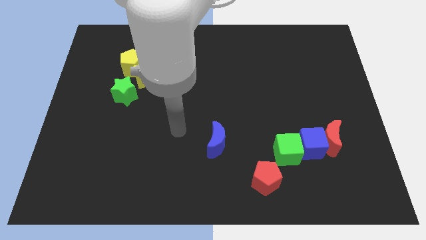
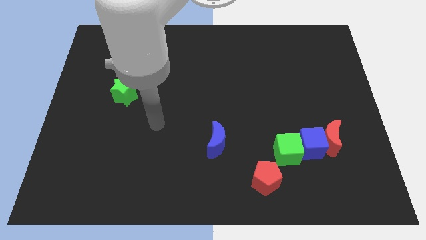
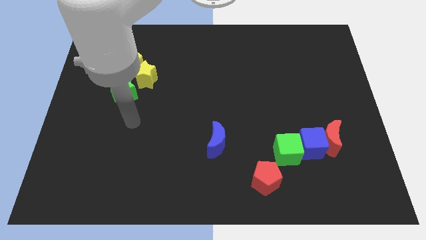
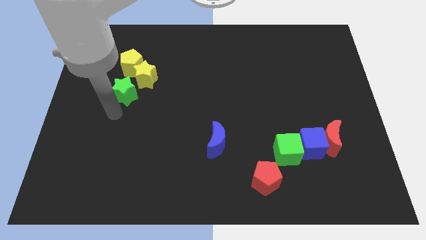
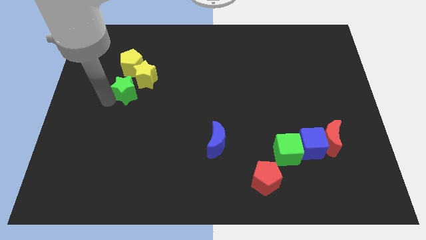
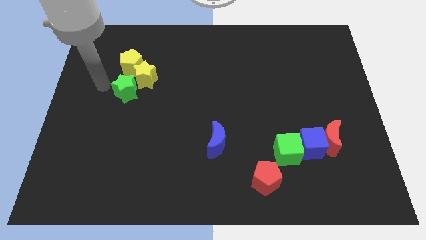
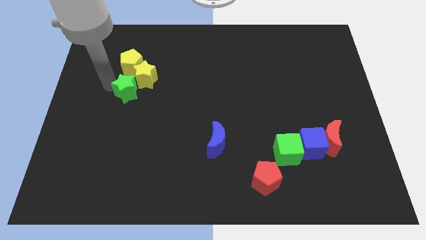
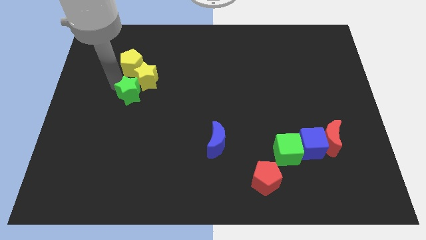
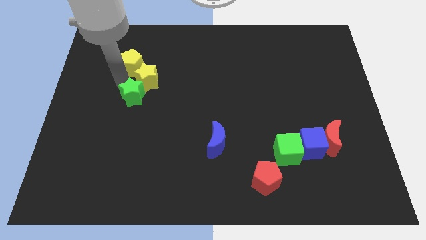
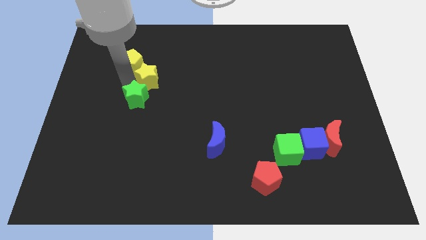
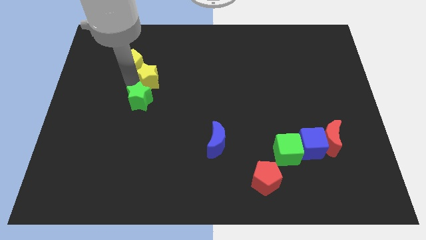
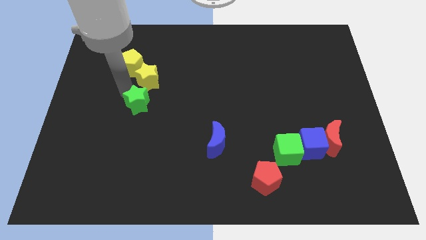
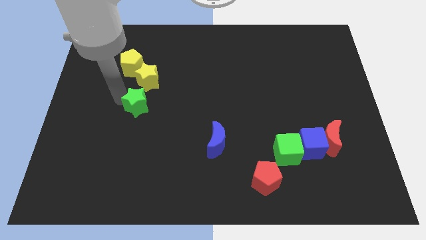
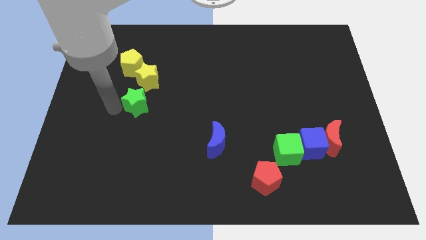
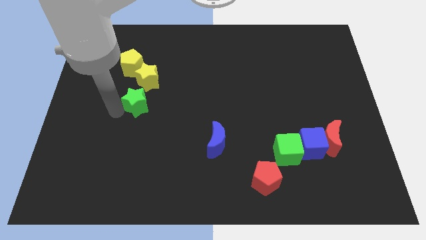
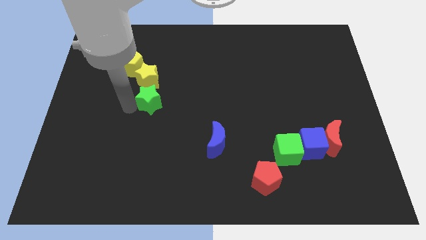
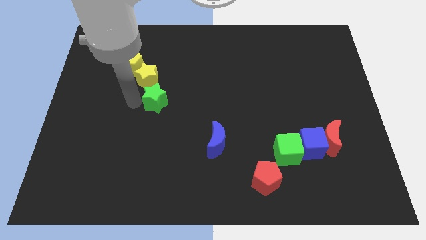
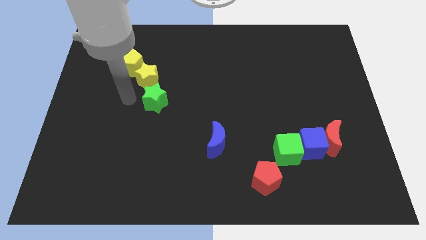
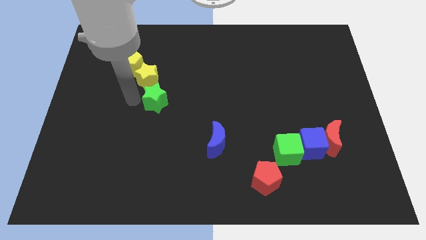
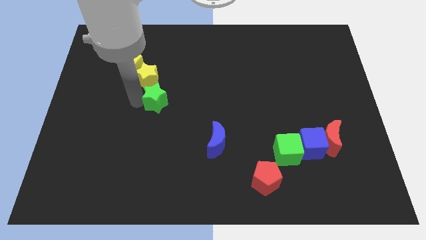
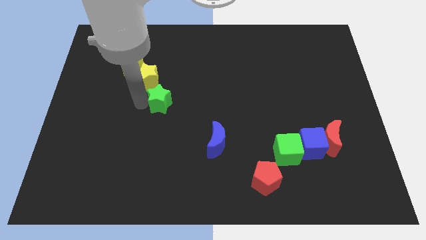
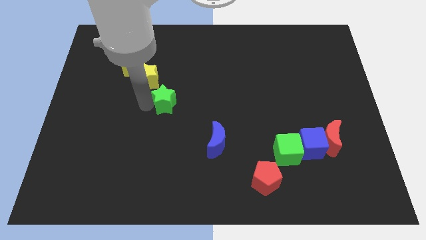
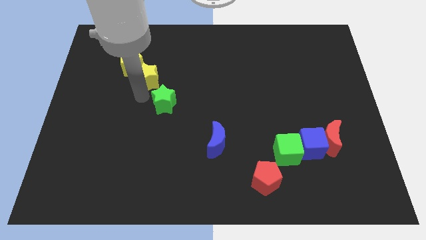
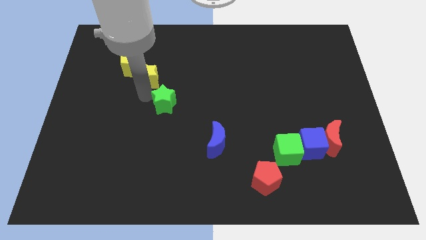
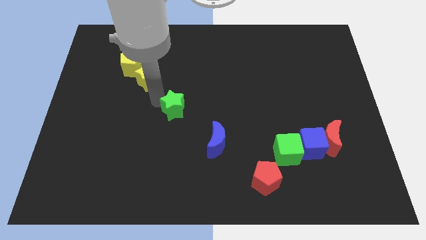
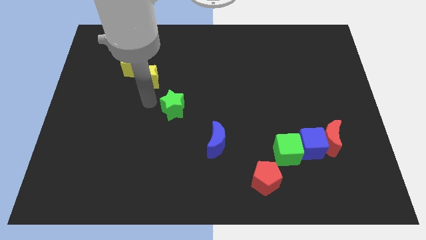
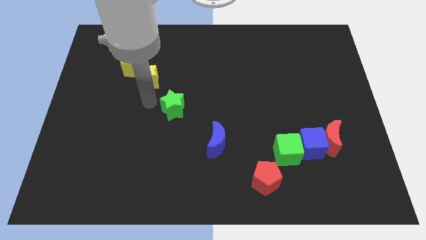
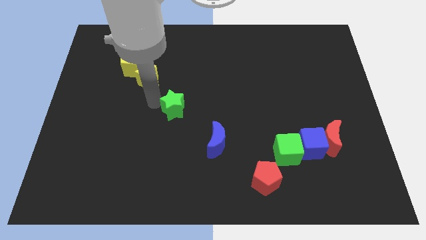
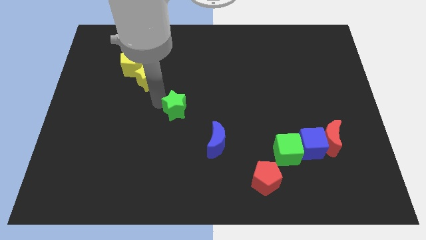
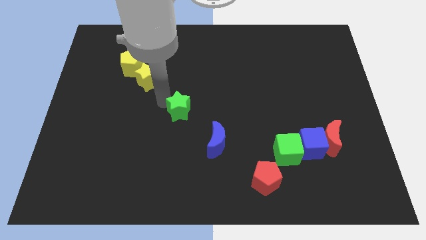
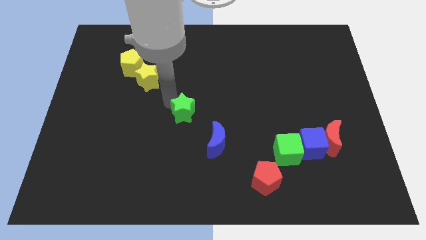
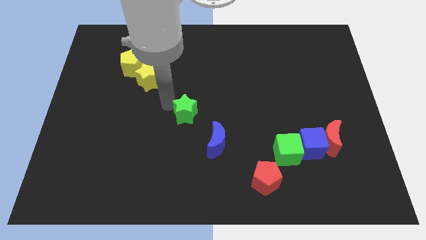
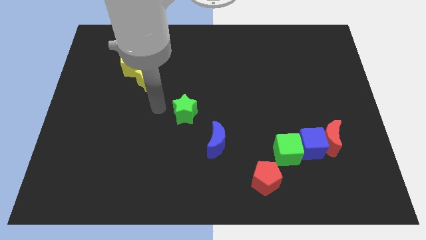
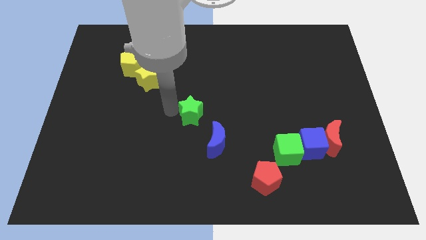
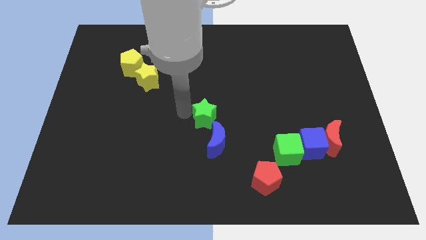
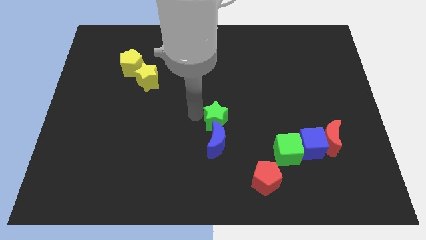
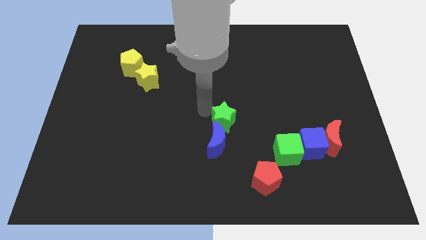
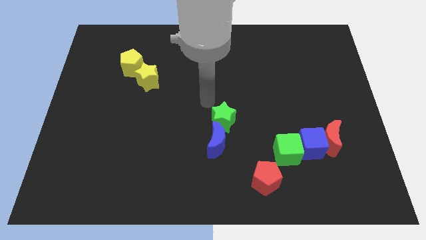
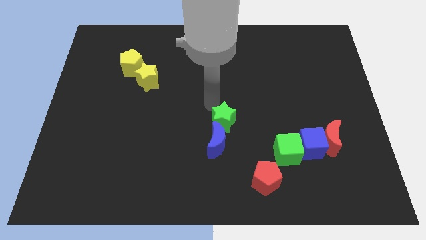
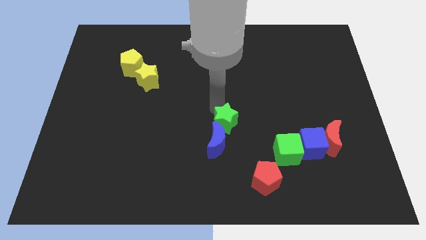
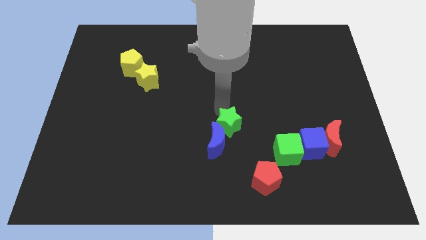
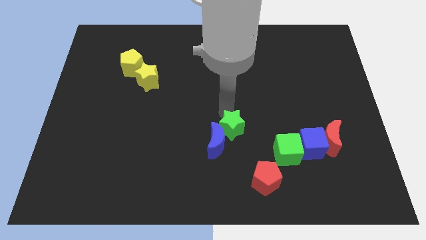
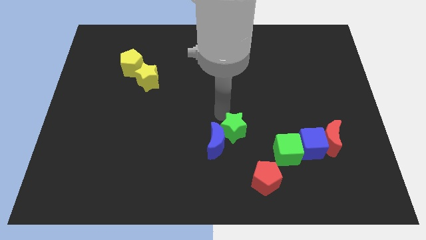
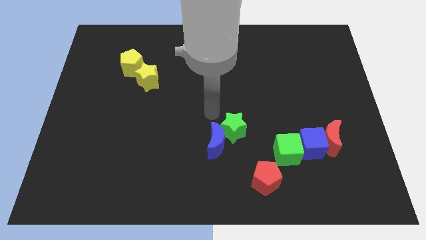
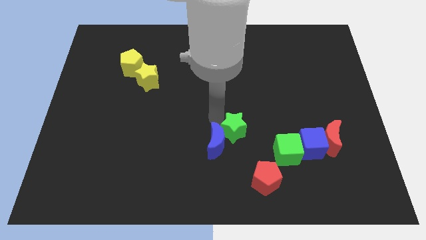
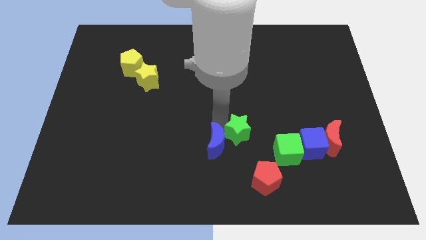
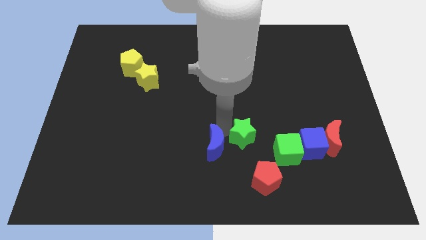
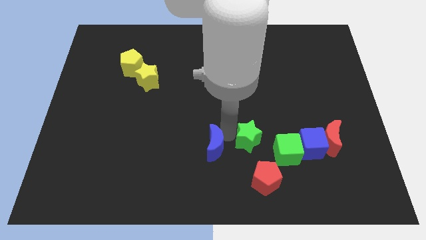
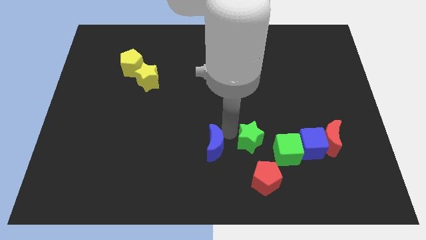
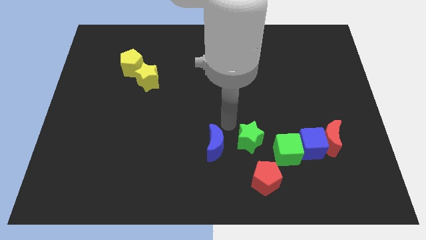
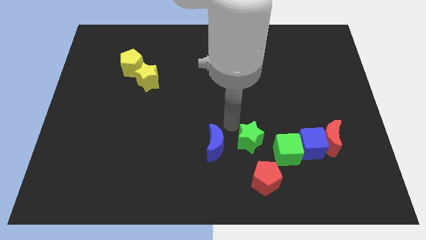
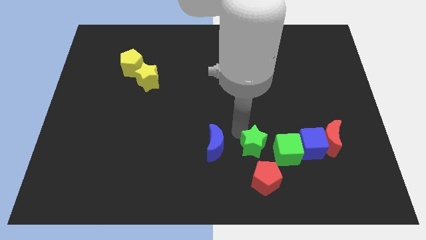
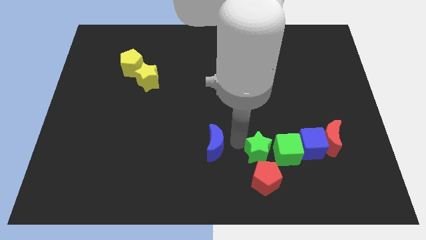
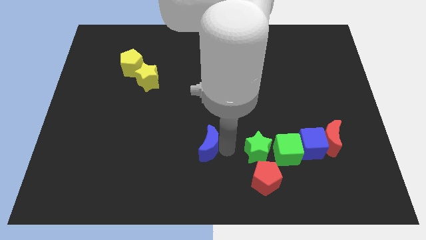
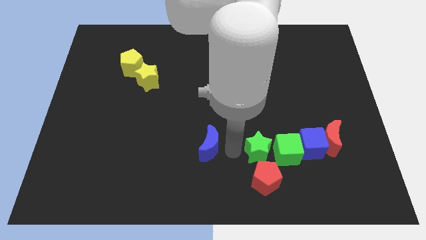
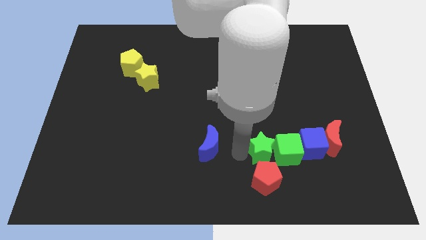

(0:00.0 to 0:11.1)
slide the green star to the green cube

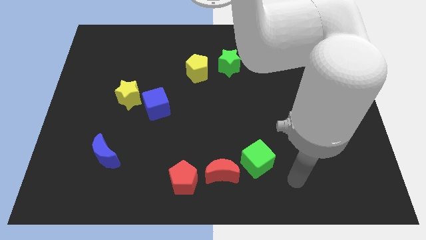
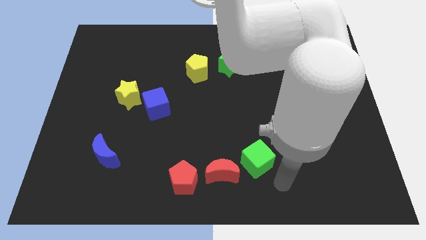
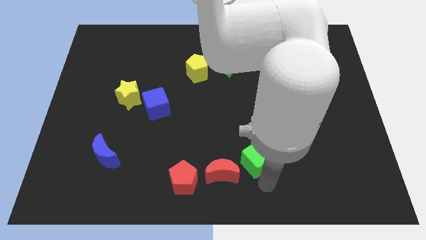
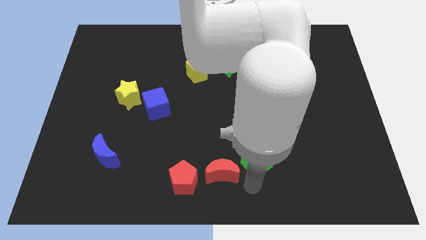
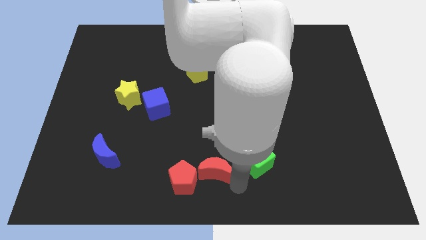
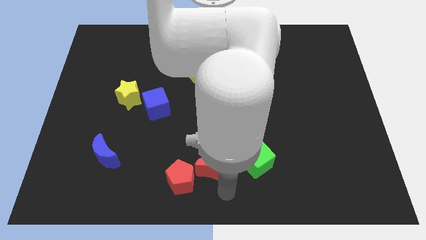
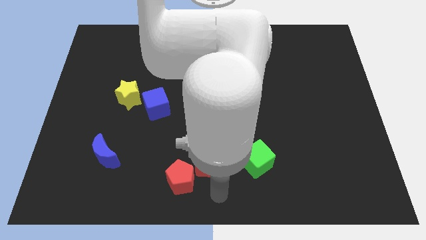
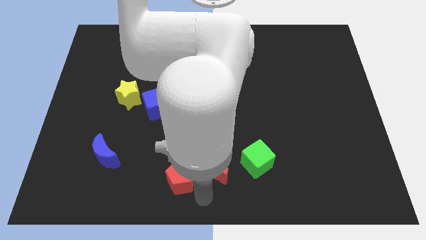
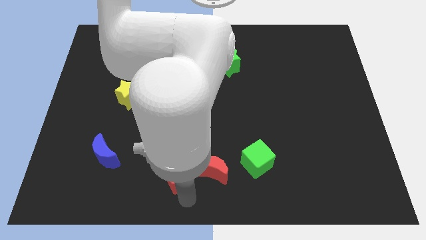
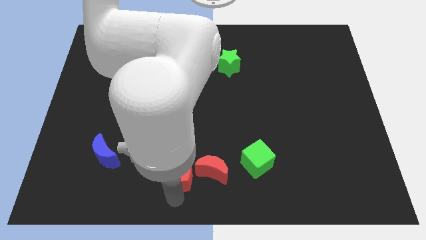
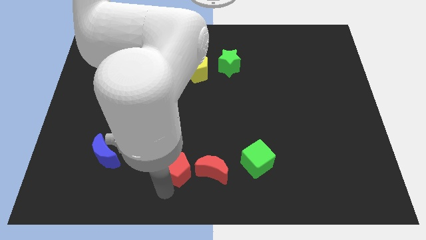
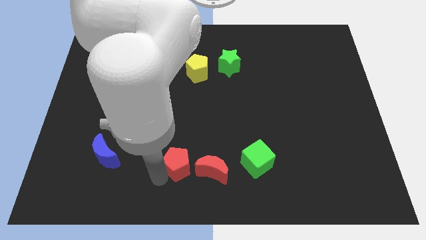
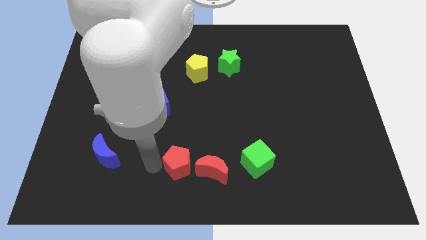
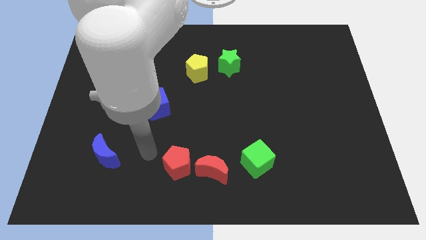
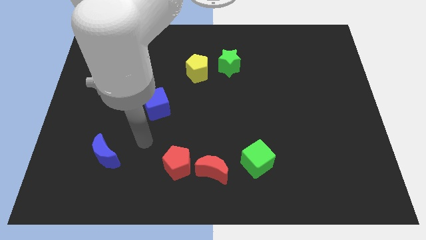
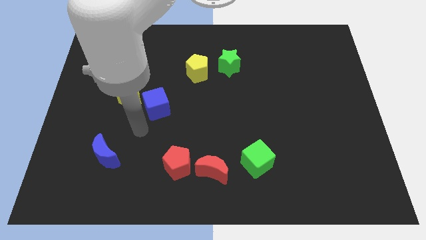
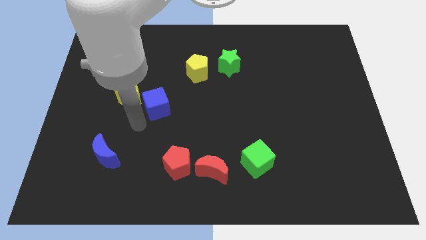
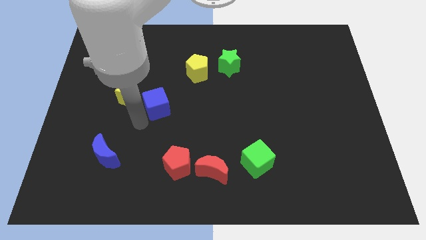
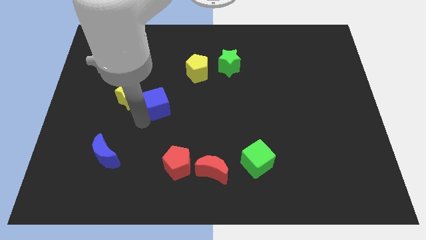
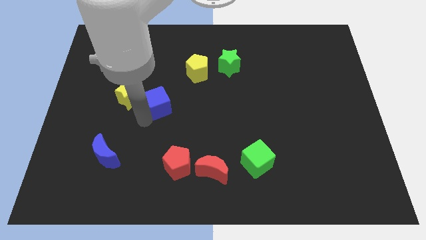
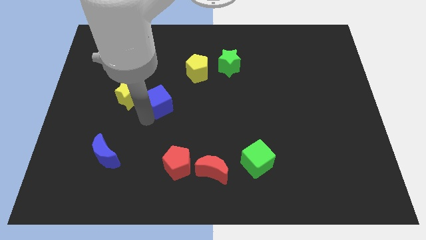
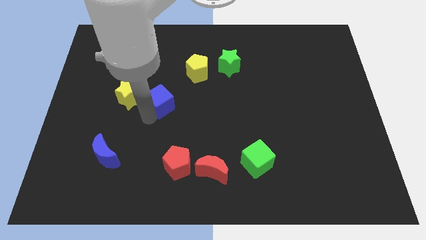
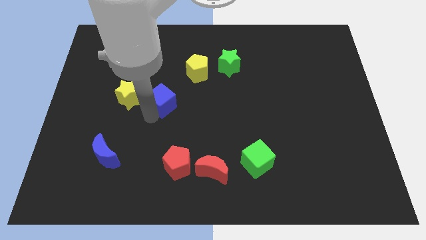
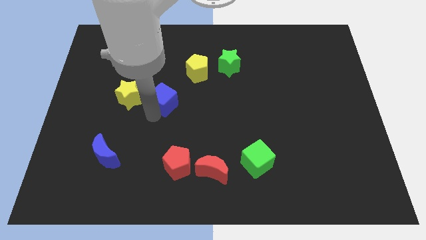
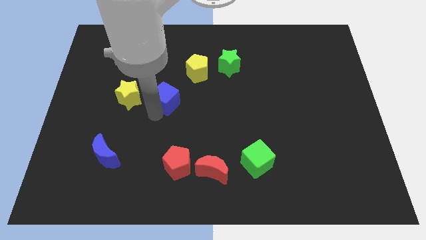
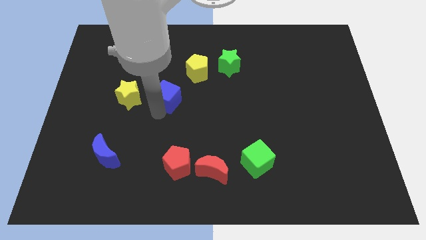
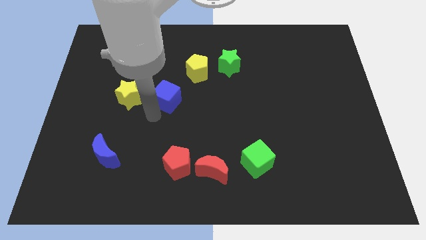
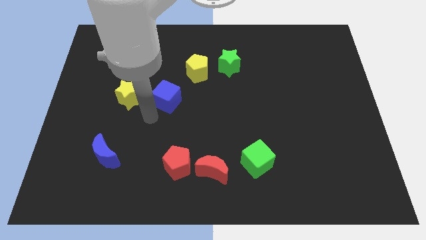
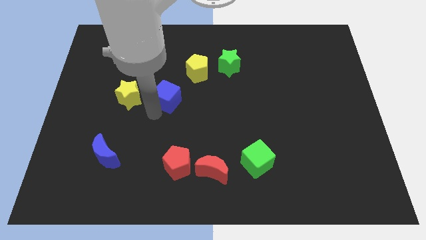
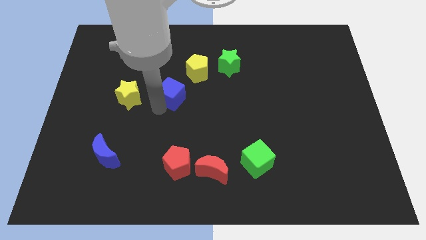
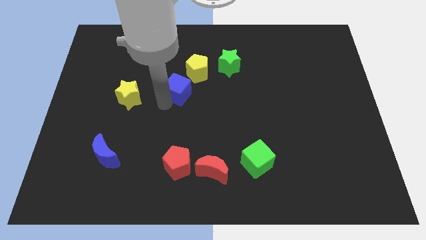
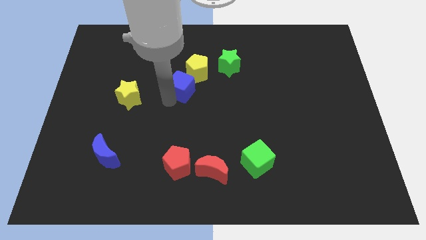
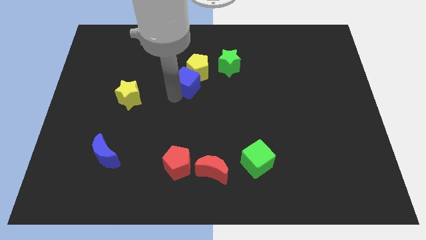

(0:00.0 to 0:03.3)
slide the blue cube close to the yellow pentagon
